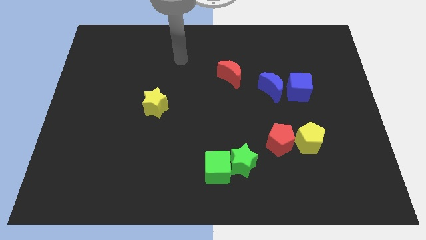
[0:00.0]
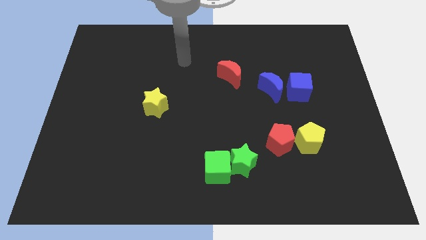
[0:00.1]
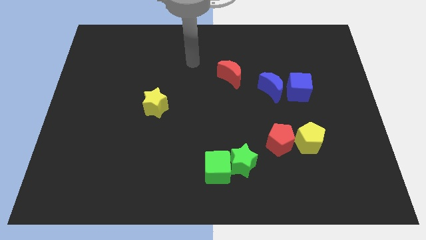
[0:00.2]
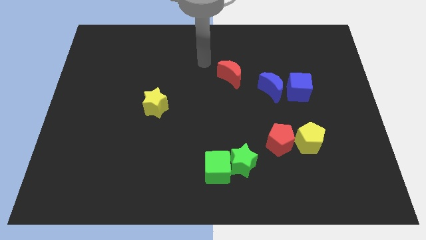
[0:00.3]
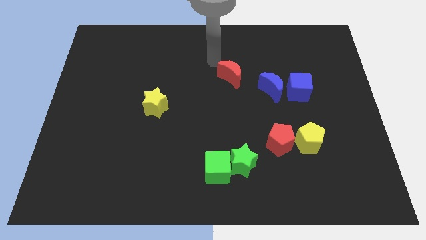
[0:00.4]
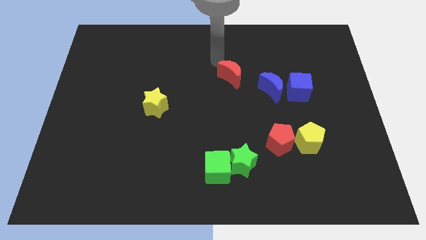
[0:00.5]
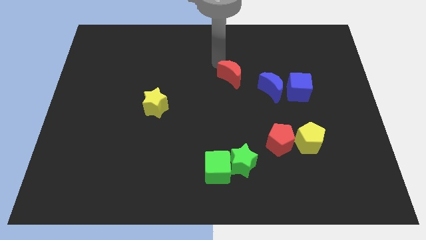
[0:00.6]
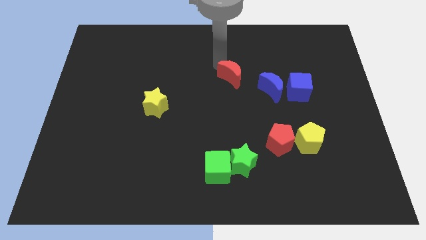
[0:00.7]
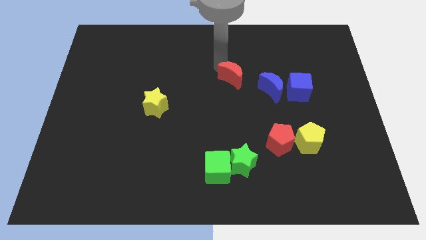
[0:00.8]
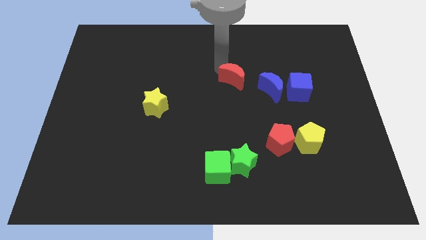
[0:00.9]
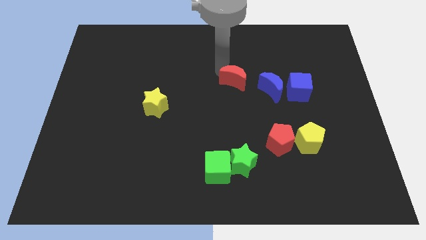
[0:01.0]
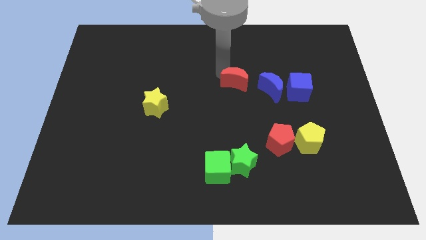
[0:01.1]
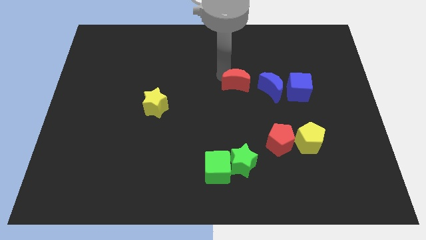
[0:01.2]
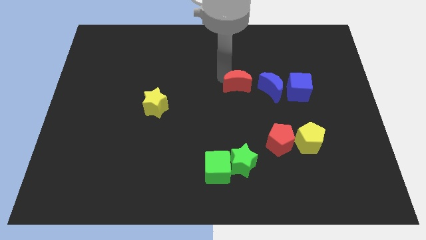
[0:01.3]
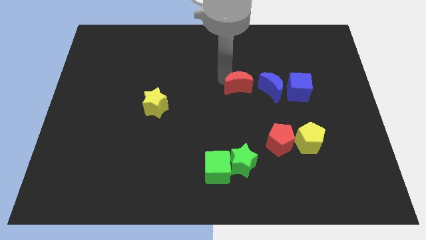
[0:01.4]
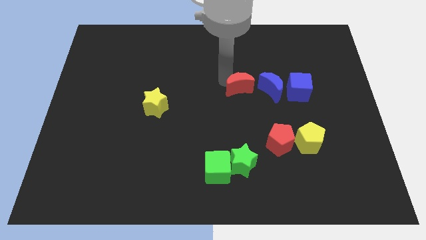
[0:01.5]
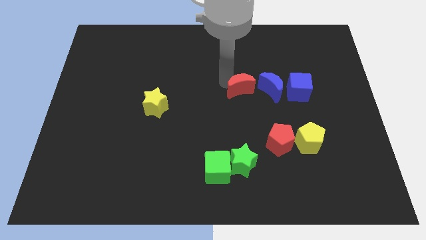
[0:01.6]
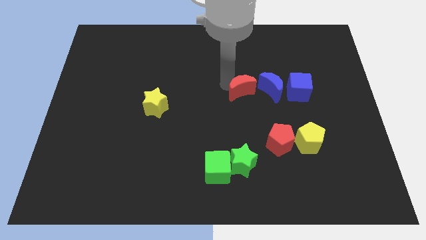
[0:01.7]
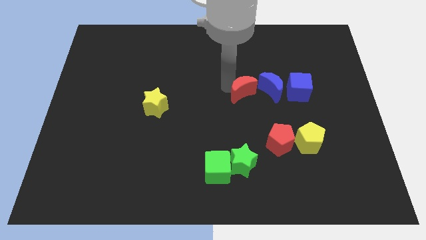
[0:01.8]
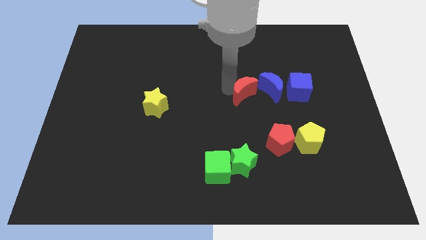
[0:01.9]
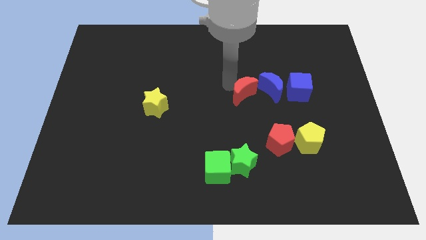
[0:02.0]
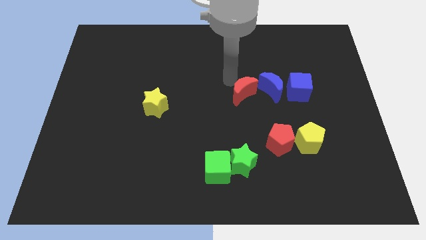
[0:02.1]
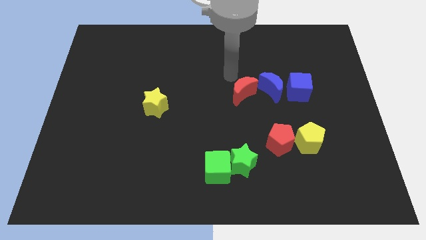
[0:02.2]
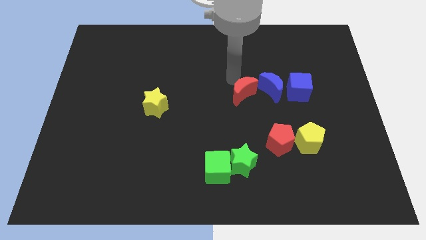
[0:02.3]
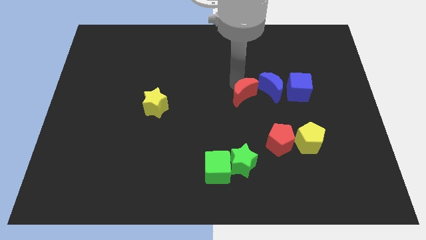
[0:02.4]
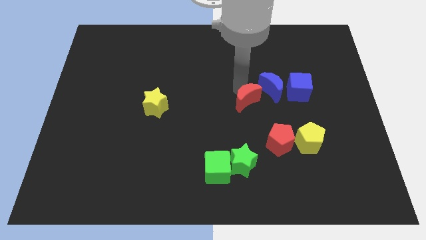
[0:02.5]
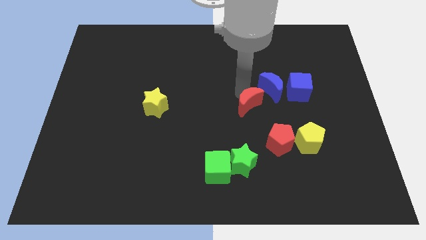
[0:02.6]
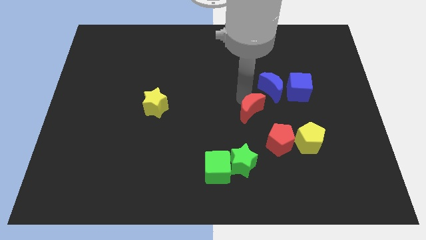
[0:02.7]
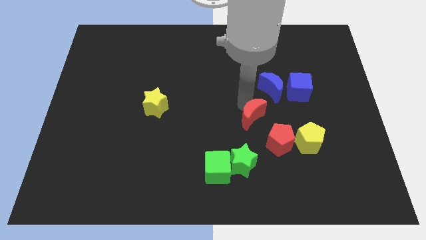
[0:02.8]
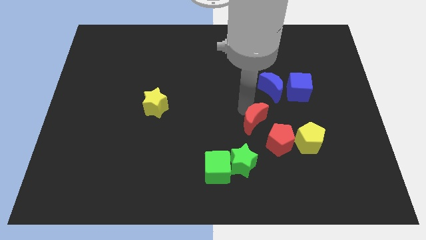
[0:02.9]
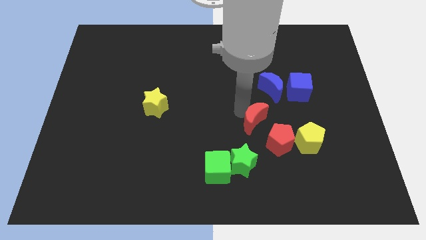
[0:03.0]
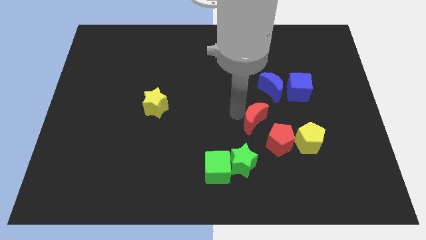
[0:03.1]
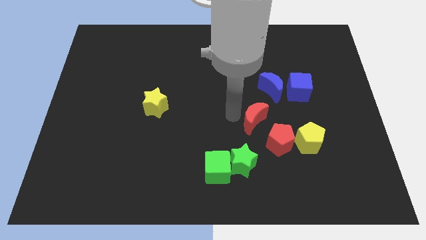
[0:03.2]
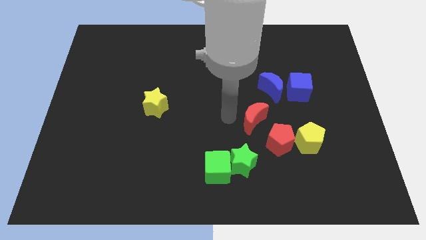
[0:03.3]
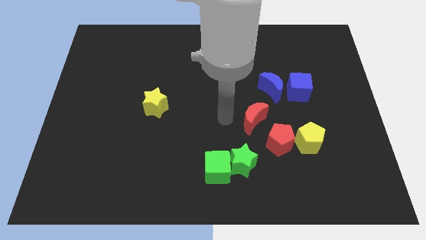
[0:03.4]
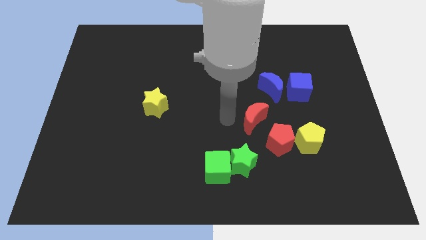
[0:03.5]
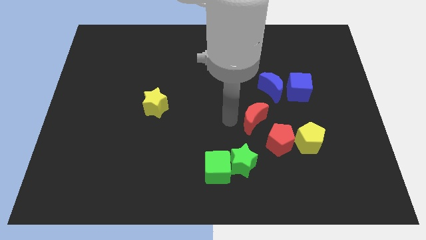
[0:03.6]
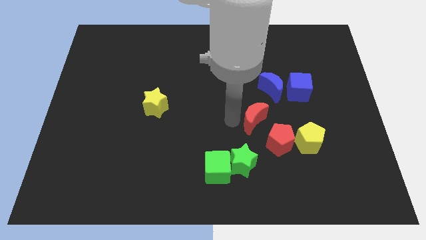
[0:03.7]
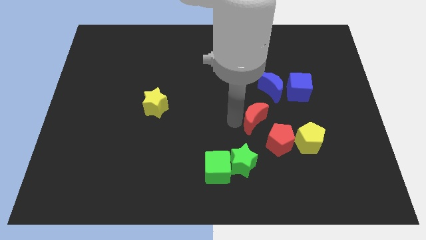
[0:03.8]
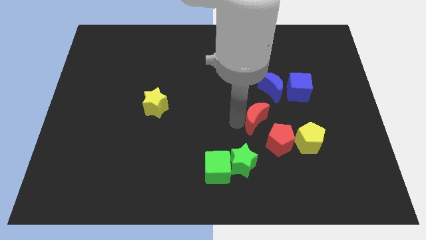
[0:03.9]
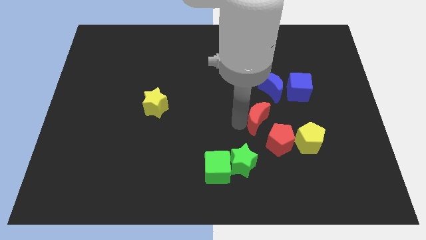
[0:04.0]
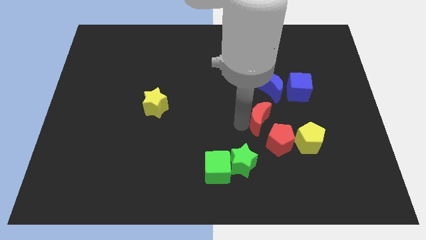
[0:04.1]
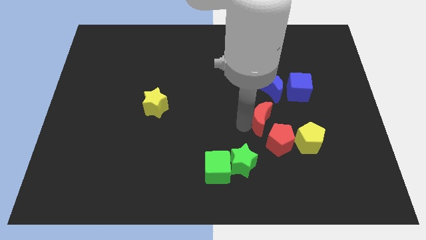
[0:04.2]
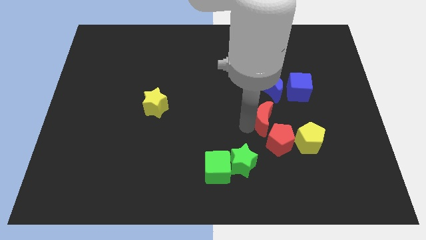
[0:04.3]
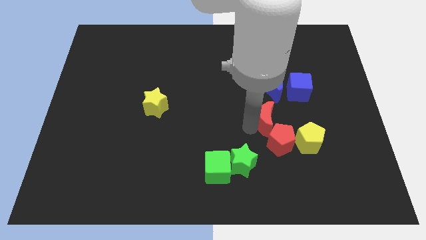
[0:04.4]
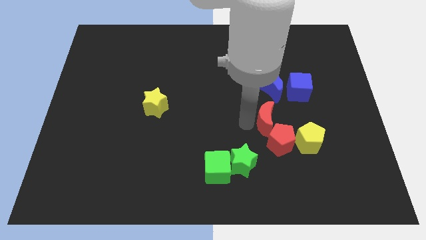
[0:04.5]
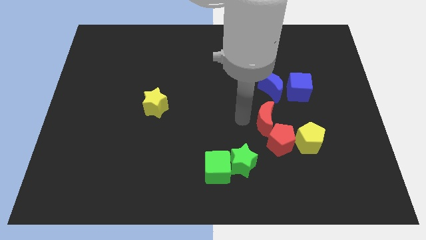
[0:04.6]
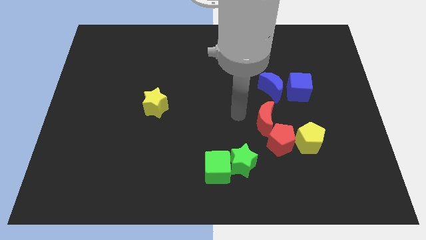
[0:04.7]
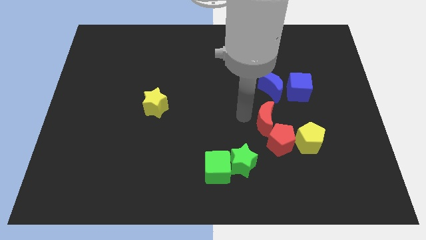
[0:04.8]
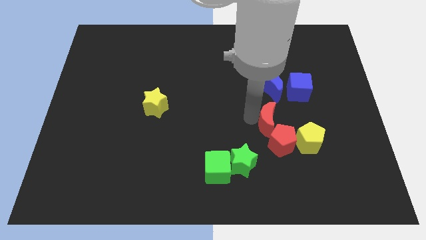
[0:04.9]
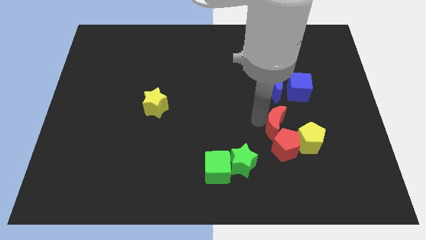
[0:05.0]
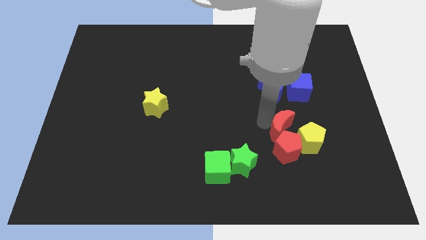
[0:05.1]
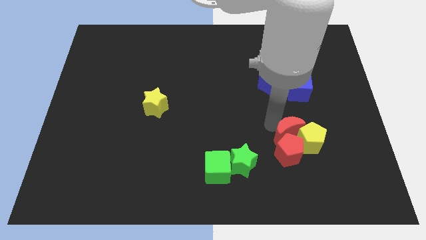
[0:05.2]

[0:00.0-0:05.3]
move the red moon next to the yellow pentagon

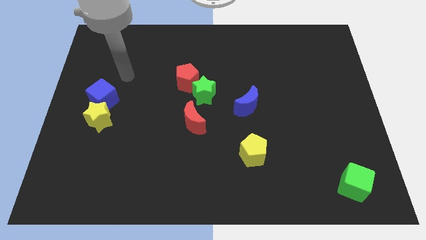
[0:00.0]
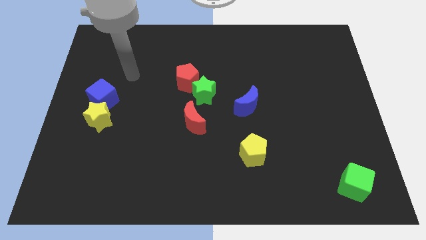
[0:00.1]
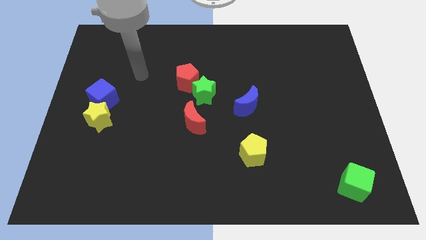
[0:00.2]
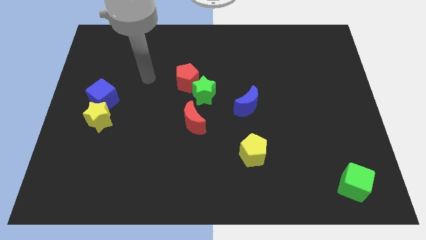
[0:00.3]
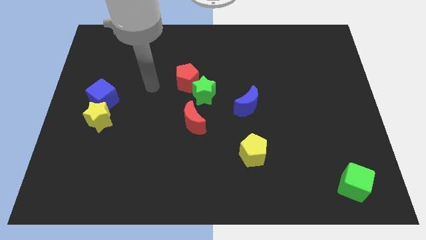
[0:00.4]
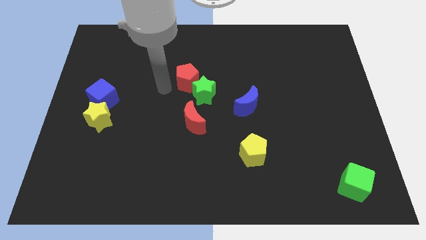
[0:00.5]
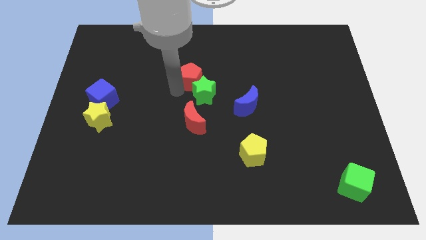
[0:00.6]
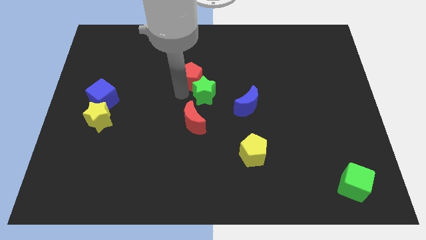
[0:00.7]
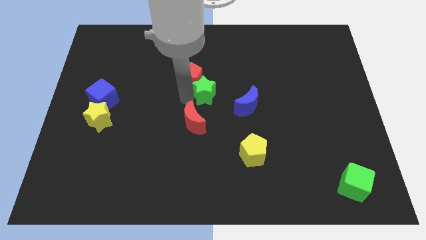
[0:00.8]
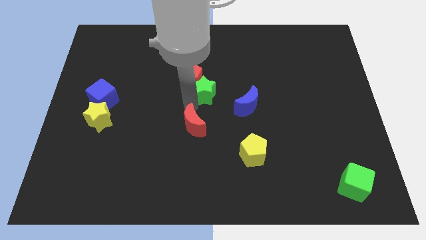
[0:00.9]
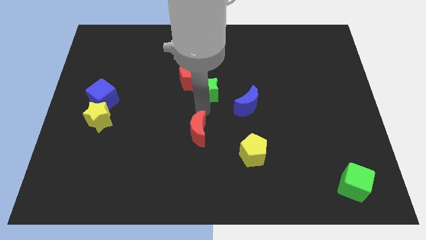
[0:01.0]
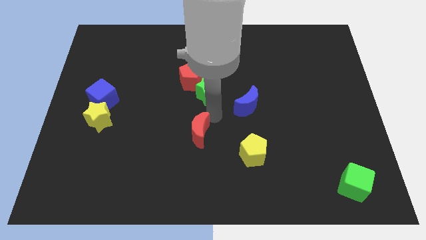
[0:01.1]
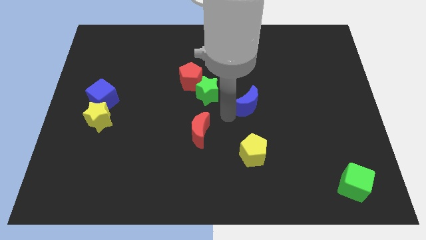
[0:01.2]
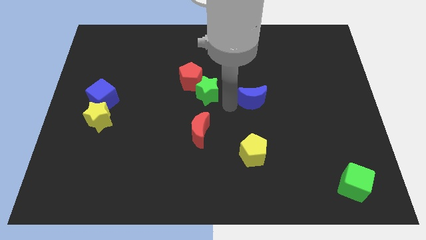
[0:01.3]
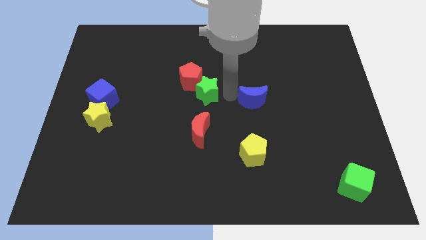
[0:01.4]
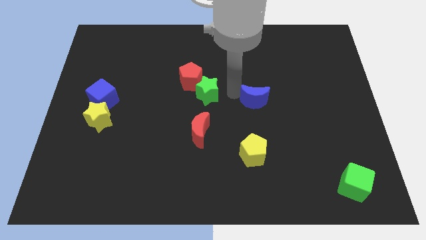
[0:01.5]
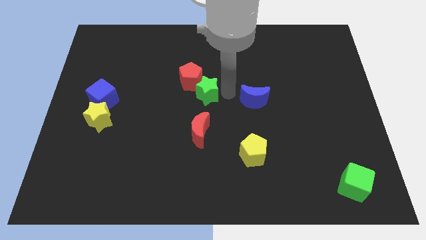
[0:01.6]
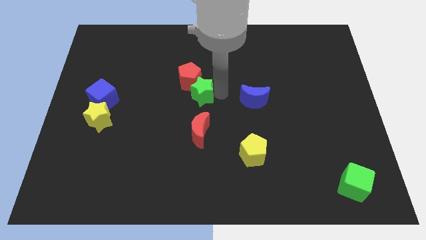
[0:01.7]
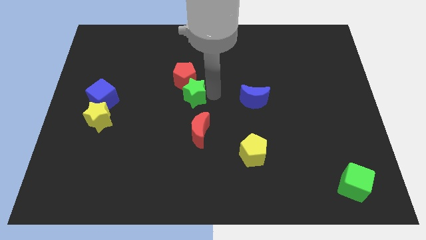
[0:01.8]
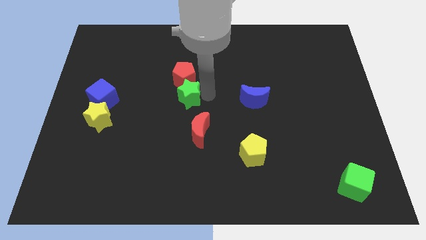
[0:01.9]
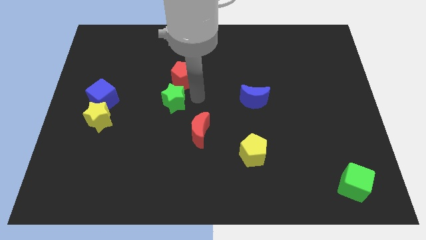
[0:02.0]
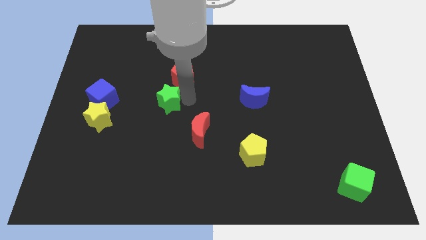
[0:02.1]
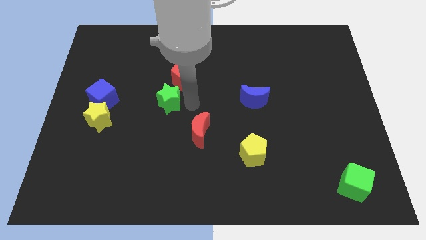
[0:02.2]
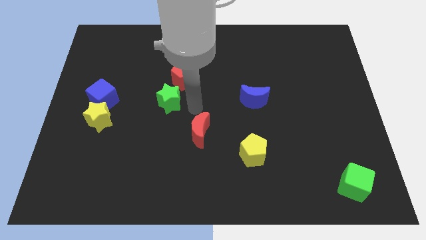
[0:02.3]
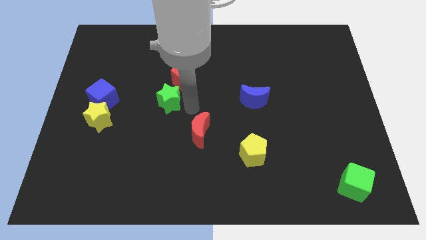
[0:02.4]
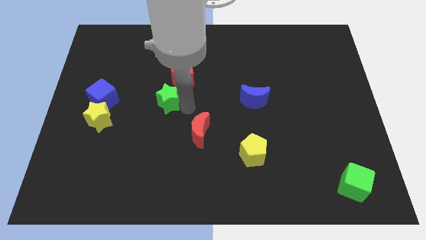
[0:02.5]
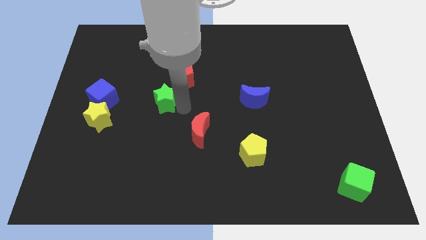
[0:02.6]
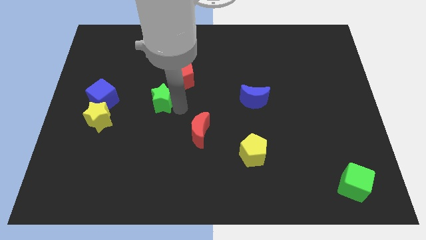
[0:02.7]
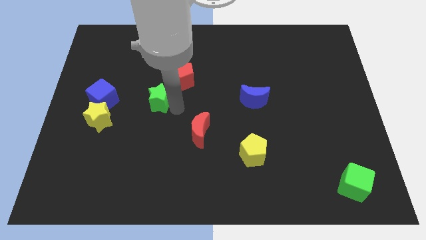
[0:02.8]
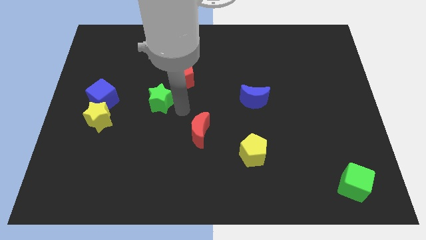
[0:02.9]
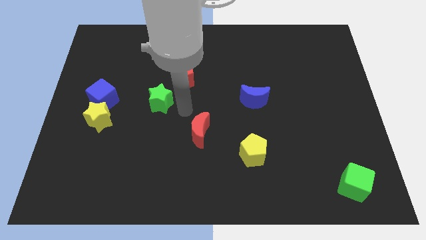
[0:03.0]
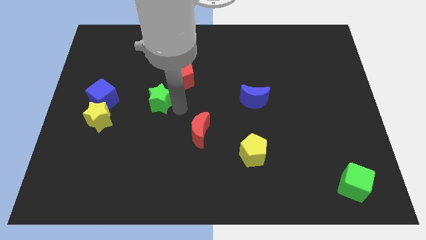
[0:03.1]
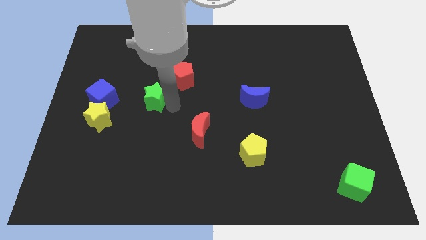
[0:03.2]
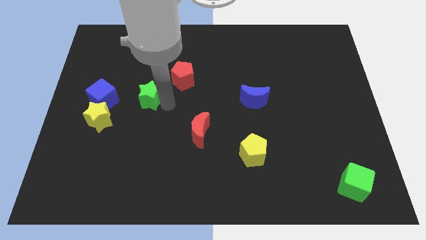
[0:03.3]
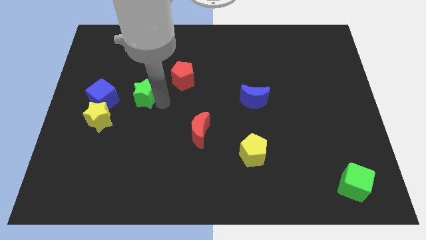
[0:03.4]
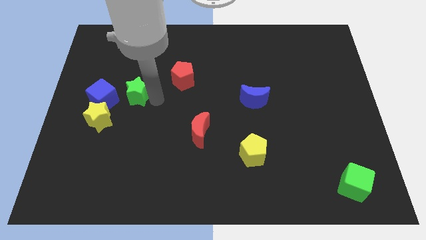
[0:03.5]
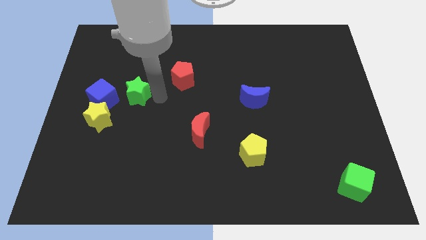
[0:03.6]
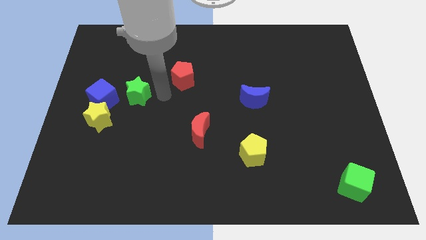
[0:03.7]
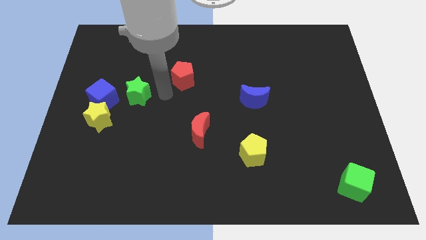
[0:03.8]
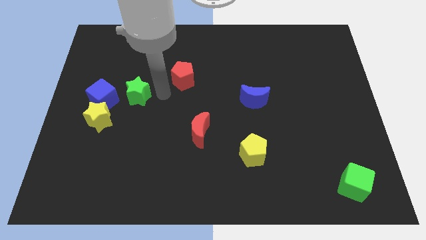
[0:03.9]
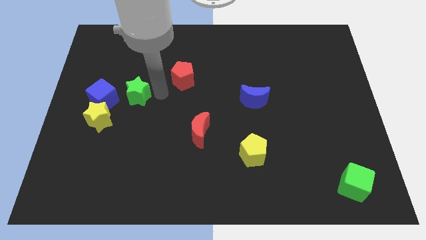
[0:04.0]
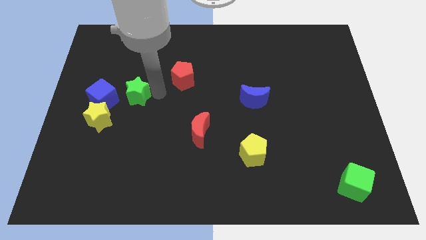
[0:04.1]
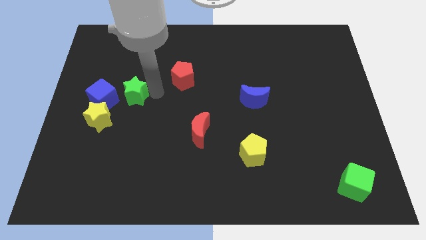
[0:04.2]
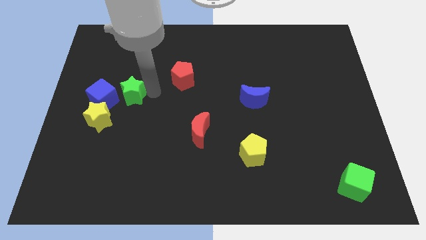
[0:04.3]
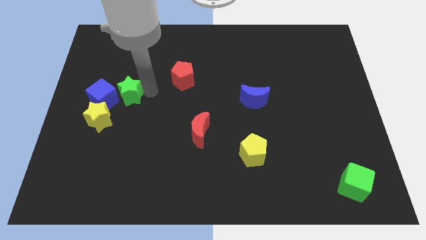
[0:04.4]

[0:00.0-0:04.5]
slide the green star next to the blue cube
